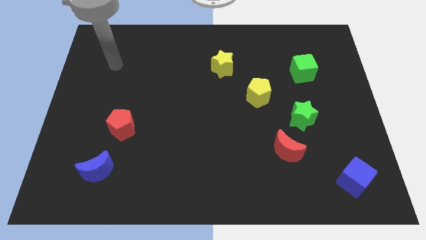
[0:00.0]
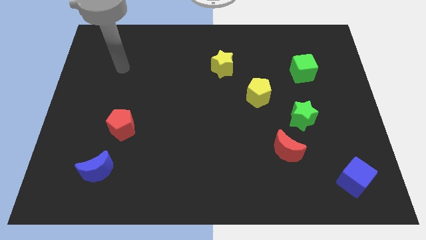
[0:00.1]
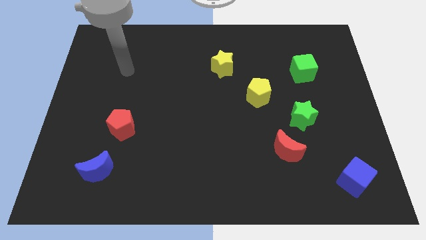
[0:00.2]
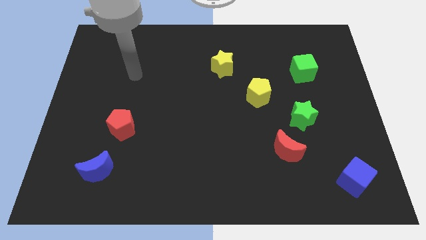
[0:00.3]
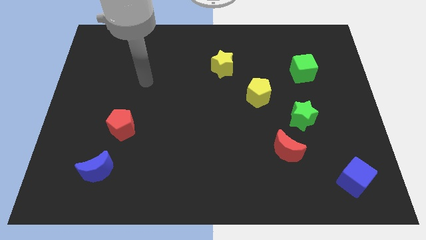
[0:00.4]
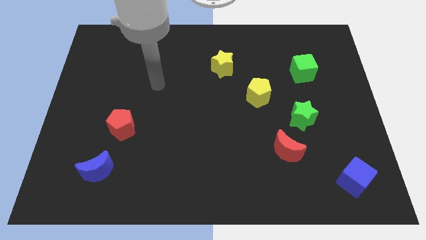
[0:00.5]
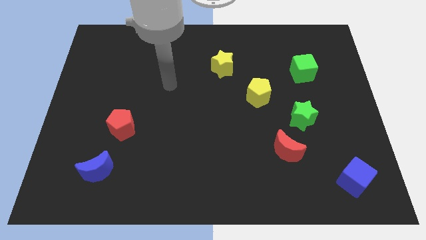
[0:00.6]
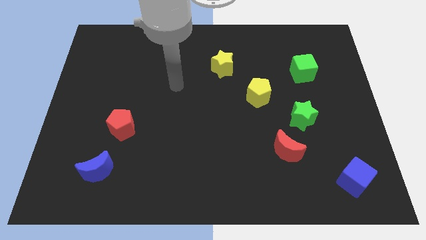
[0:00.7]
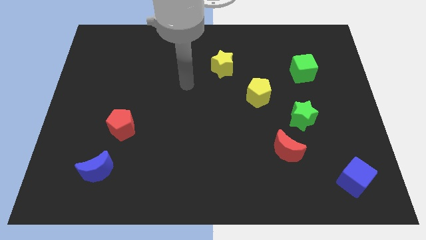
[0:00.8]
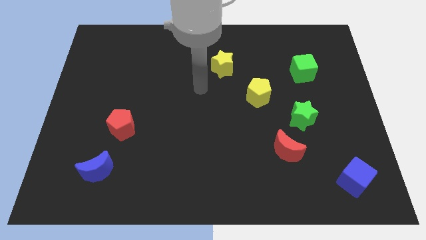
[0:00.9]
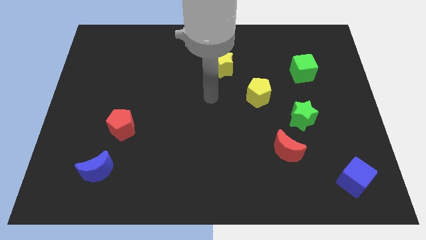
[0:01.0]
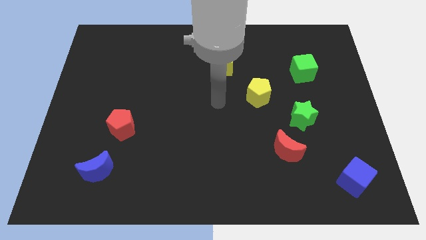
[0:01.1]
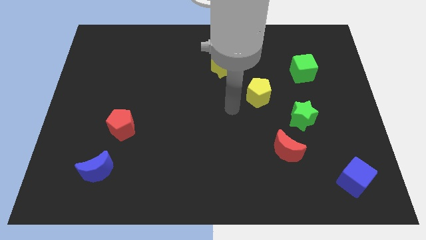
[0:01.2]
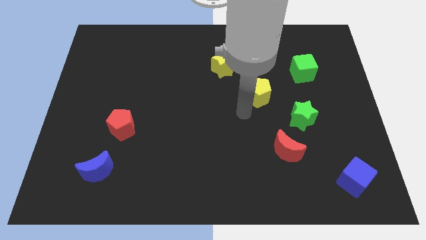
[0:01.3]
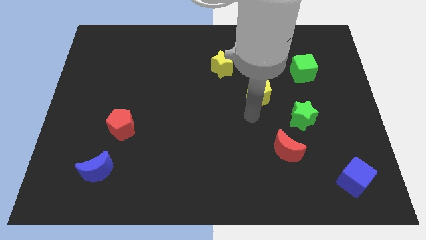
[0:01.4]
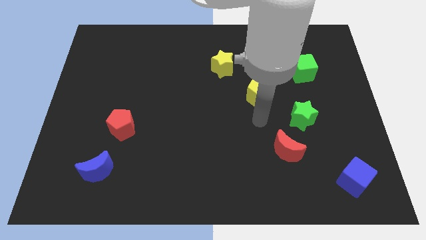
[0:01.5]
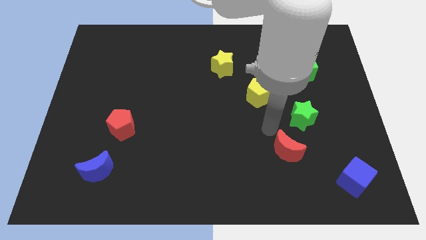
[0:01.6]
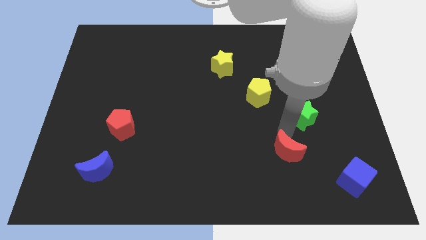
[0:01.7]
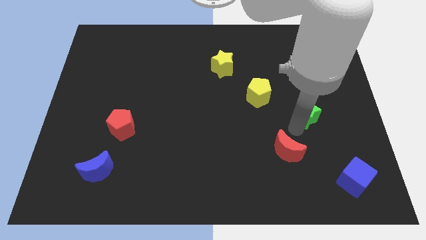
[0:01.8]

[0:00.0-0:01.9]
move the red moon away from the green star

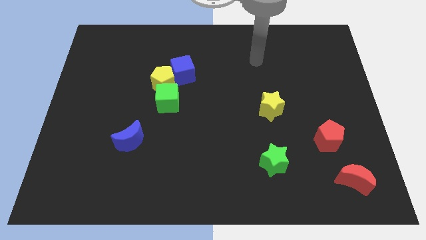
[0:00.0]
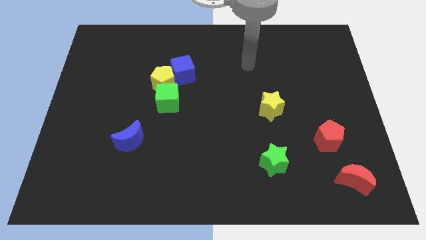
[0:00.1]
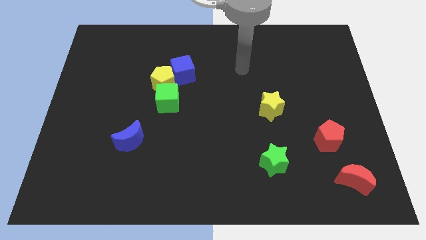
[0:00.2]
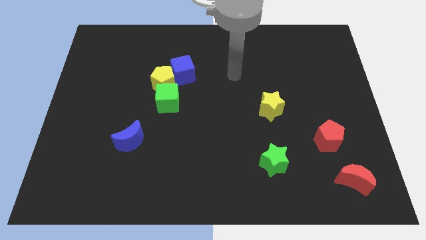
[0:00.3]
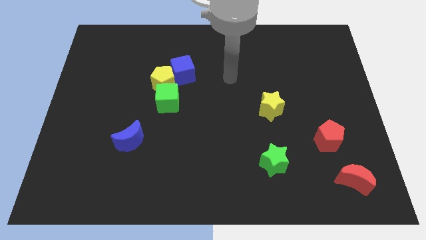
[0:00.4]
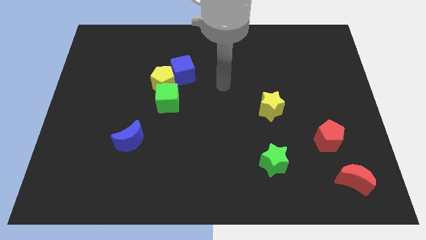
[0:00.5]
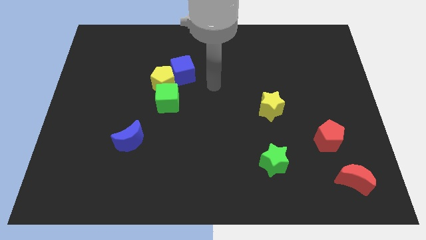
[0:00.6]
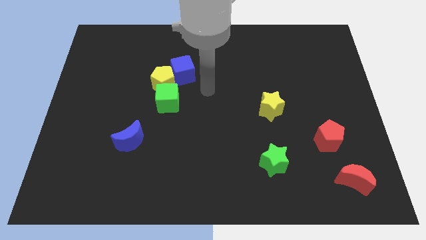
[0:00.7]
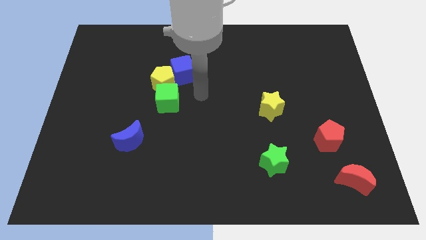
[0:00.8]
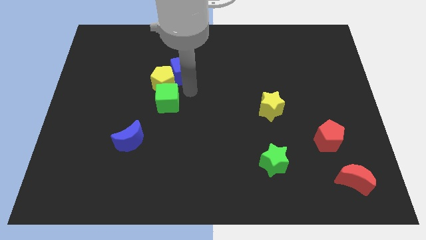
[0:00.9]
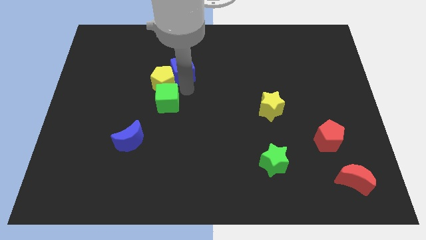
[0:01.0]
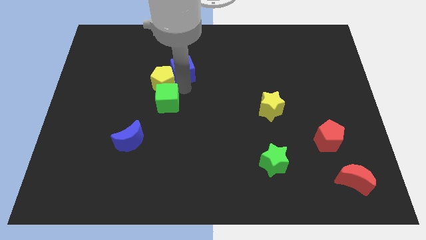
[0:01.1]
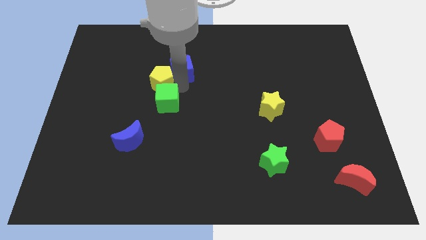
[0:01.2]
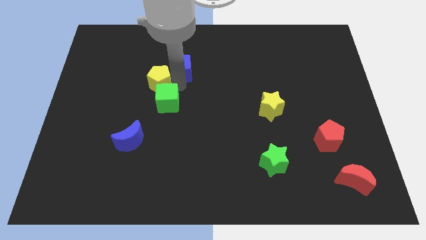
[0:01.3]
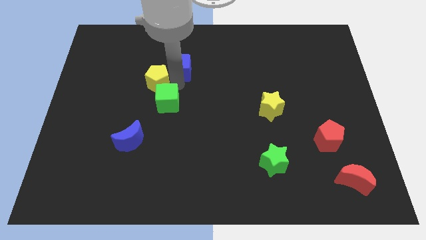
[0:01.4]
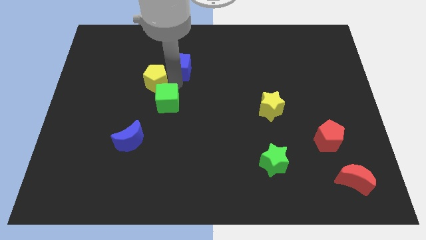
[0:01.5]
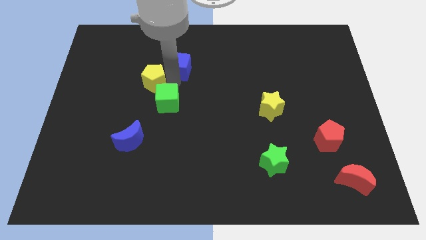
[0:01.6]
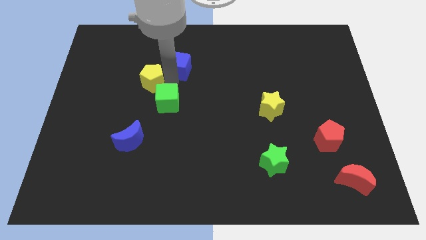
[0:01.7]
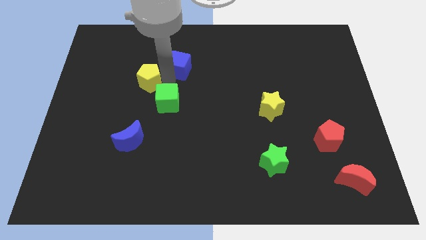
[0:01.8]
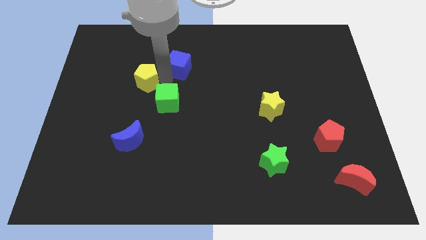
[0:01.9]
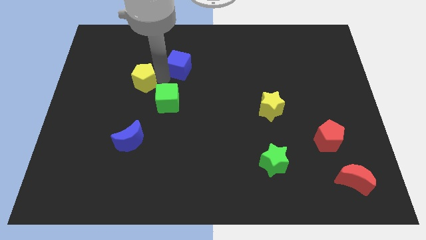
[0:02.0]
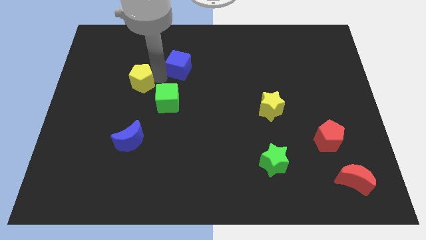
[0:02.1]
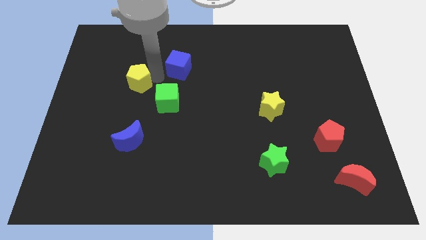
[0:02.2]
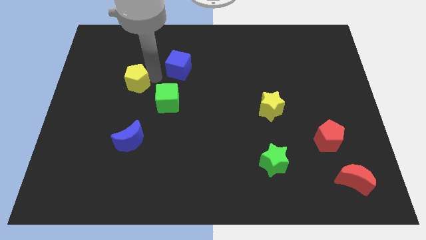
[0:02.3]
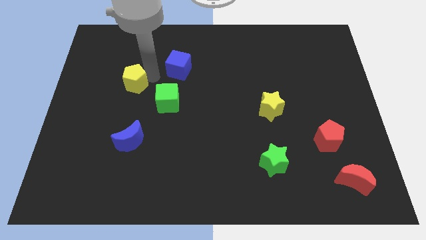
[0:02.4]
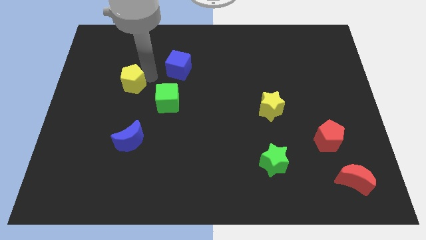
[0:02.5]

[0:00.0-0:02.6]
separate the yellow pentagon from the blue cube and green cube

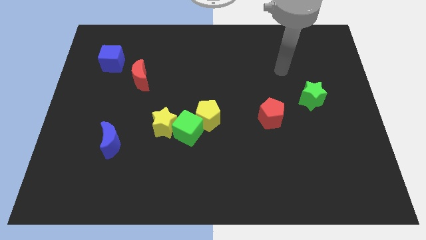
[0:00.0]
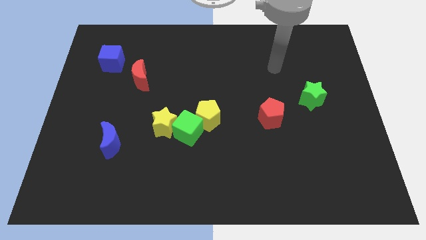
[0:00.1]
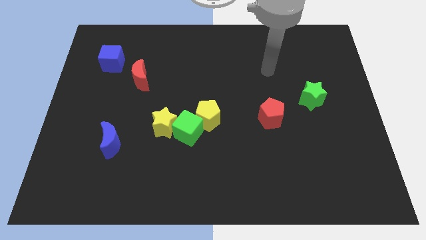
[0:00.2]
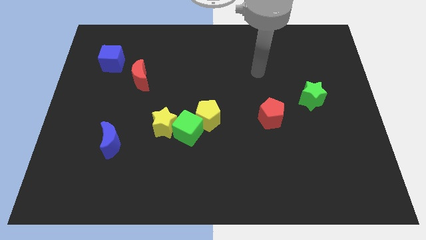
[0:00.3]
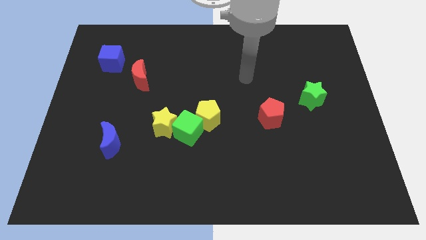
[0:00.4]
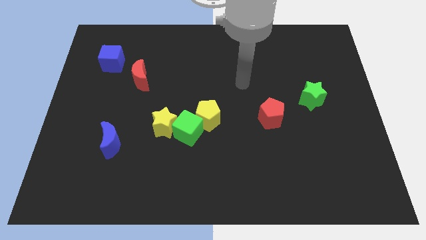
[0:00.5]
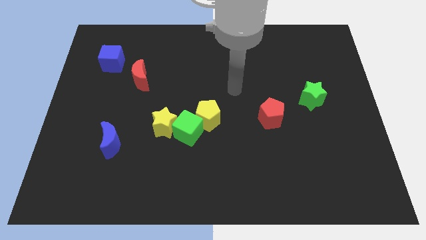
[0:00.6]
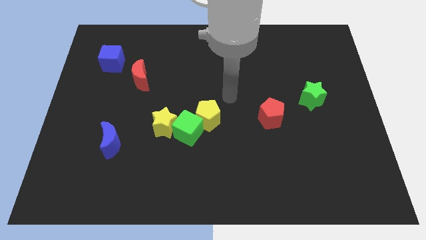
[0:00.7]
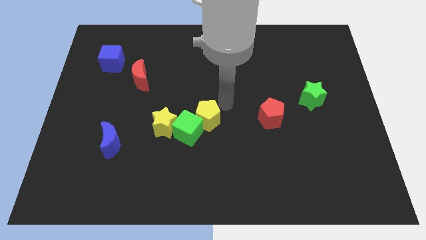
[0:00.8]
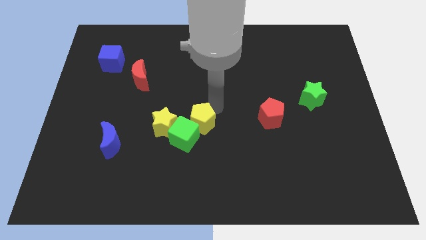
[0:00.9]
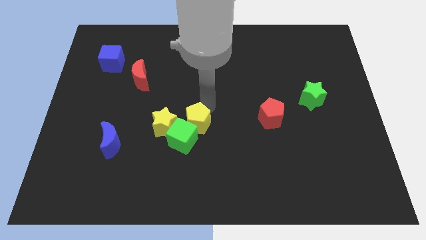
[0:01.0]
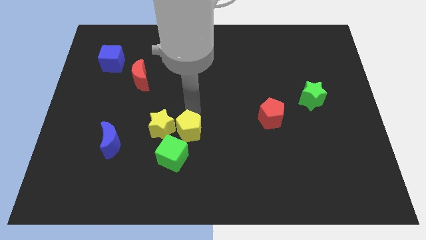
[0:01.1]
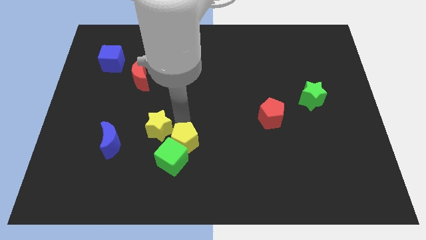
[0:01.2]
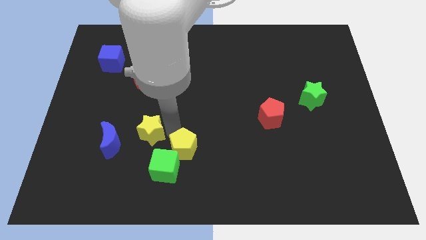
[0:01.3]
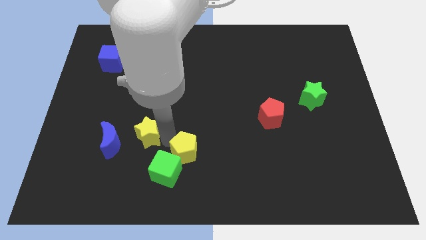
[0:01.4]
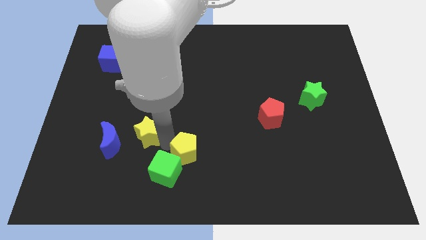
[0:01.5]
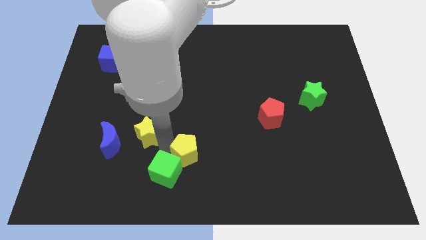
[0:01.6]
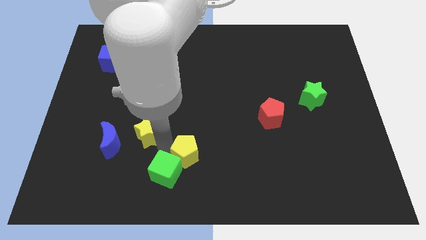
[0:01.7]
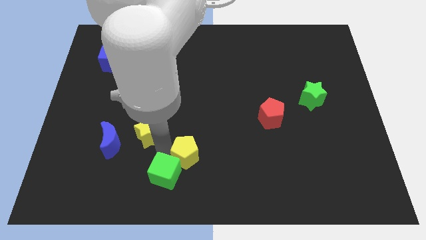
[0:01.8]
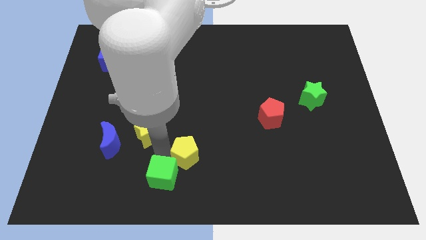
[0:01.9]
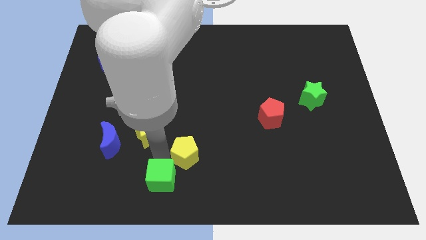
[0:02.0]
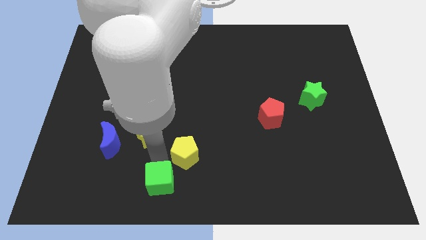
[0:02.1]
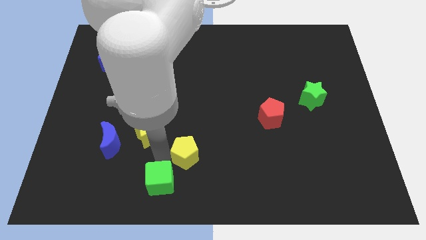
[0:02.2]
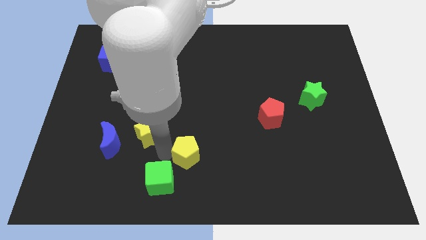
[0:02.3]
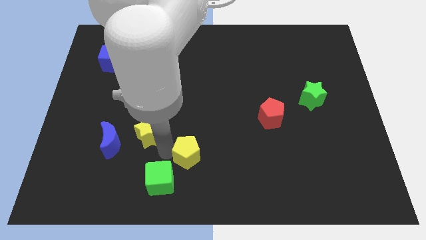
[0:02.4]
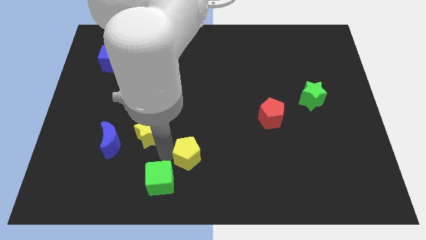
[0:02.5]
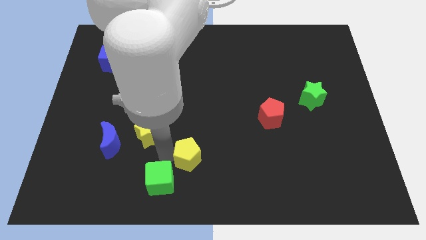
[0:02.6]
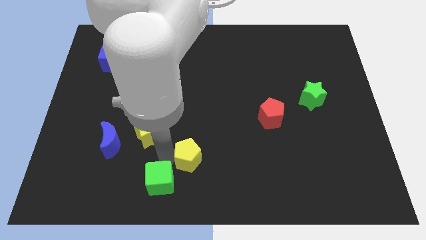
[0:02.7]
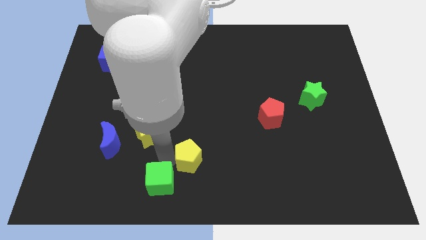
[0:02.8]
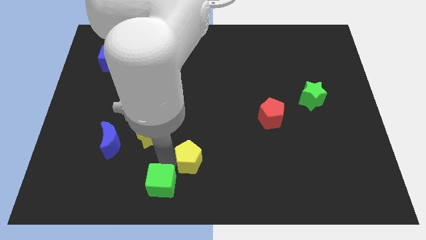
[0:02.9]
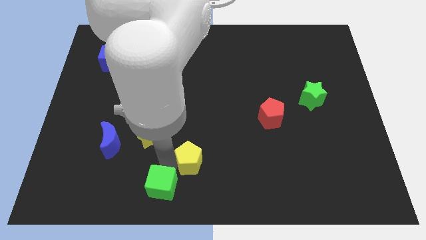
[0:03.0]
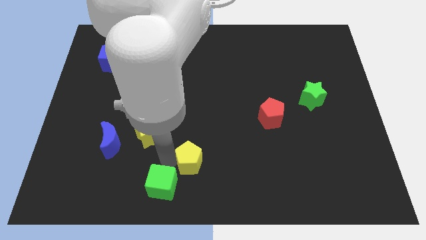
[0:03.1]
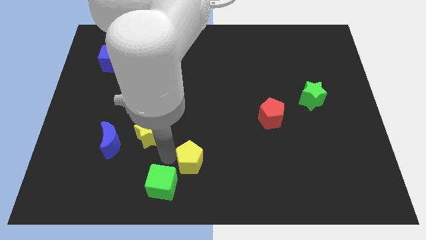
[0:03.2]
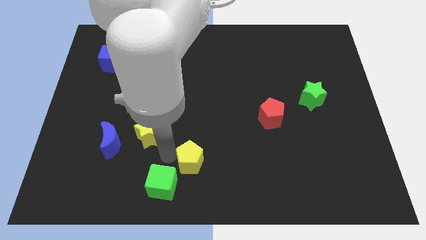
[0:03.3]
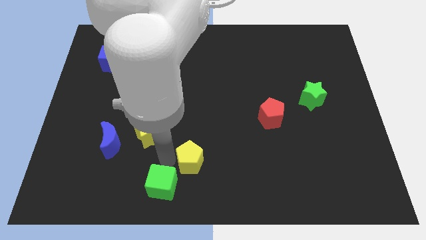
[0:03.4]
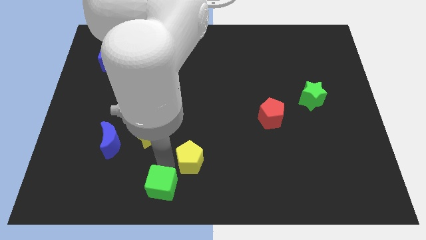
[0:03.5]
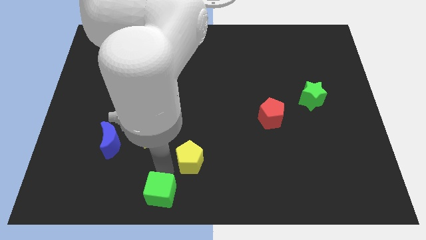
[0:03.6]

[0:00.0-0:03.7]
pull the green cube apart from the yellow star and yellow pentagon

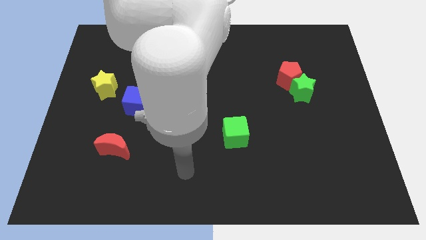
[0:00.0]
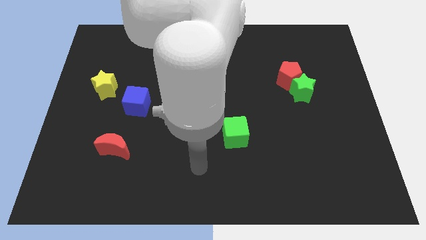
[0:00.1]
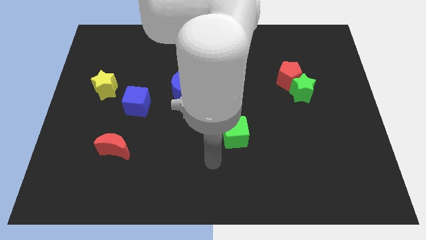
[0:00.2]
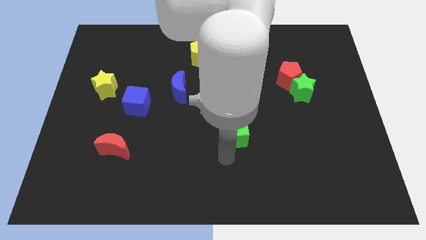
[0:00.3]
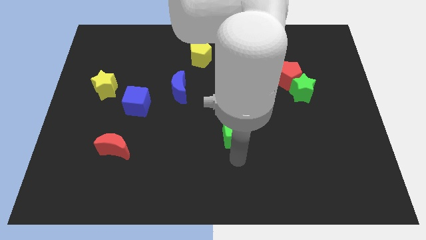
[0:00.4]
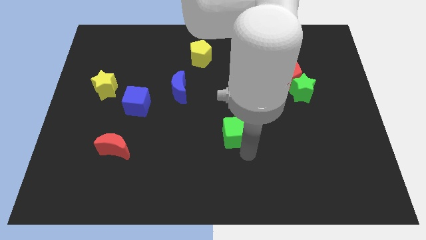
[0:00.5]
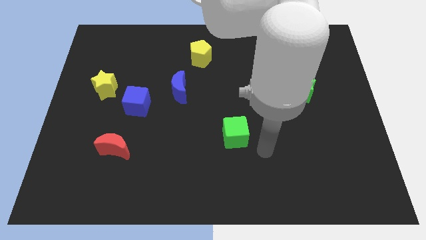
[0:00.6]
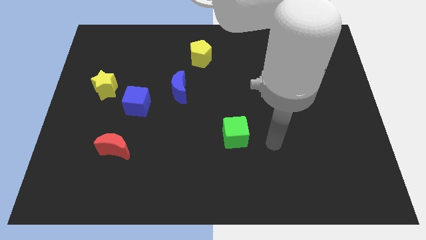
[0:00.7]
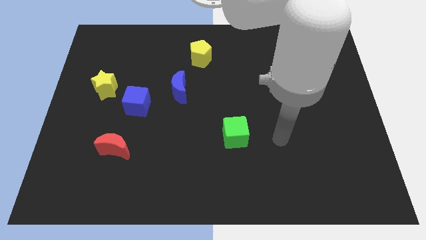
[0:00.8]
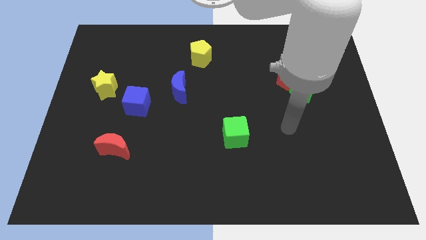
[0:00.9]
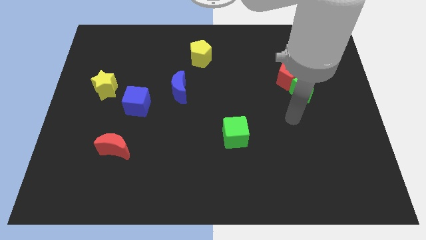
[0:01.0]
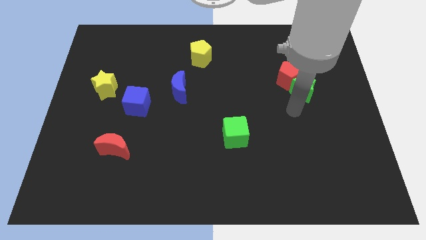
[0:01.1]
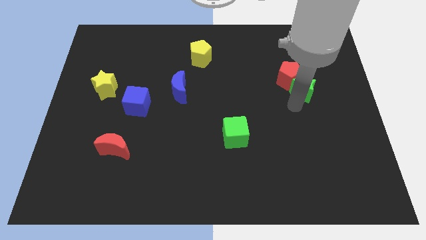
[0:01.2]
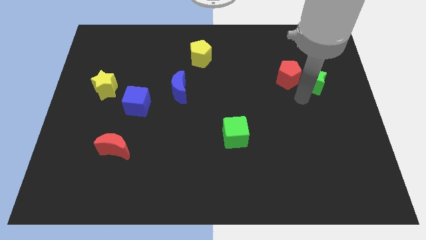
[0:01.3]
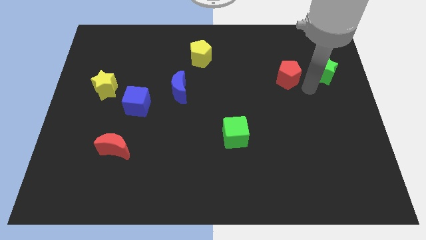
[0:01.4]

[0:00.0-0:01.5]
move the red pentagon away from the green star
